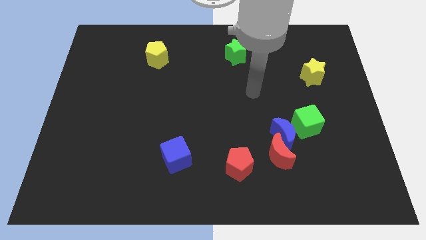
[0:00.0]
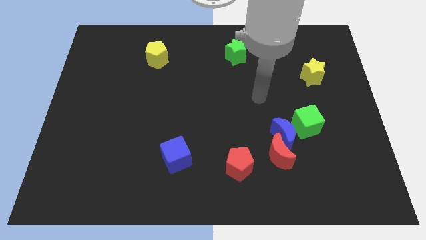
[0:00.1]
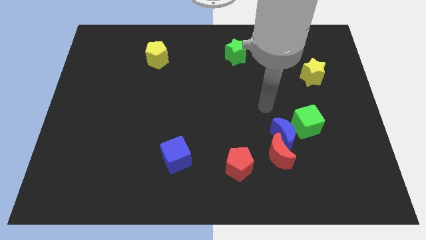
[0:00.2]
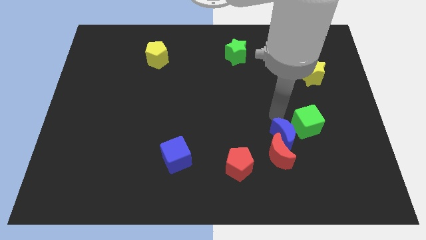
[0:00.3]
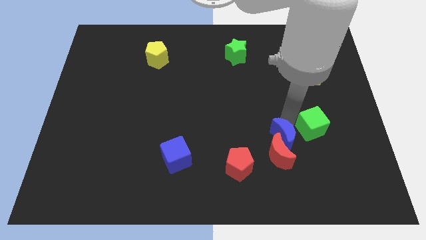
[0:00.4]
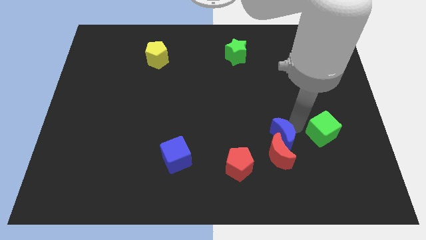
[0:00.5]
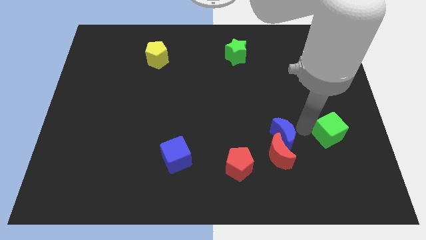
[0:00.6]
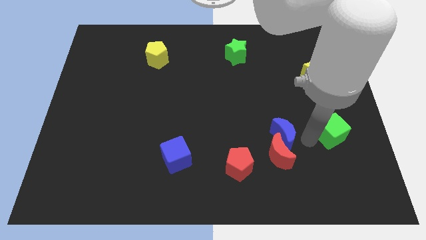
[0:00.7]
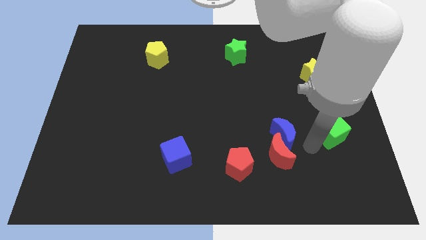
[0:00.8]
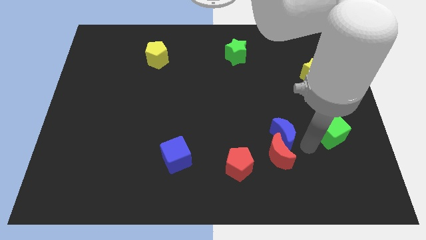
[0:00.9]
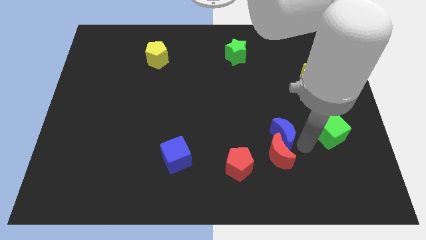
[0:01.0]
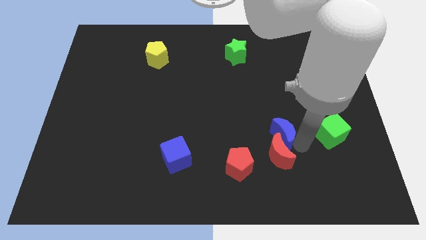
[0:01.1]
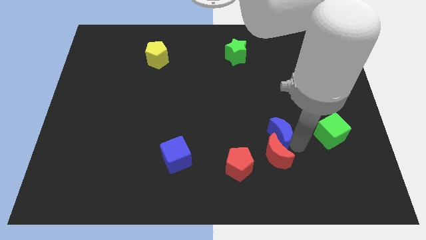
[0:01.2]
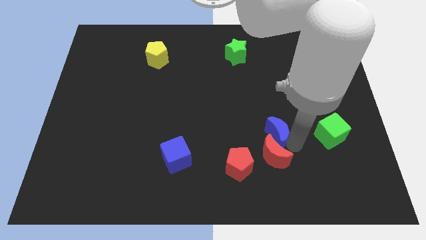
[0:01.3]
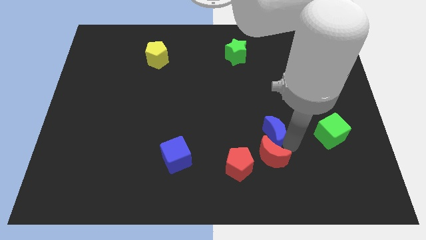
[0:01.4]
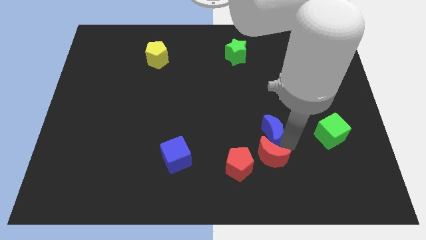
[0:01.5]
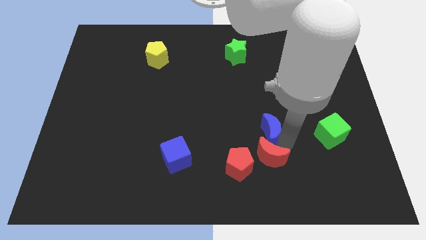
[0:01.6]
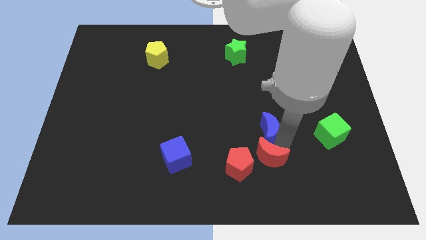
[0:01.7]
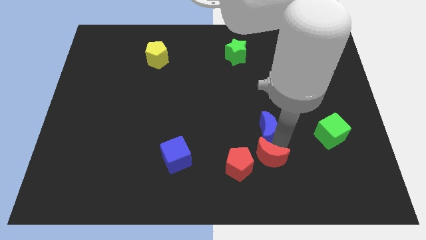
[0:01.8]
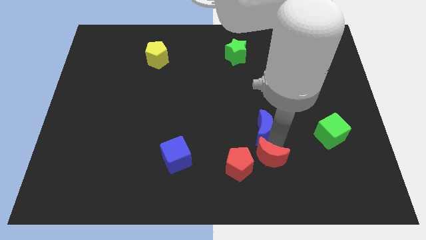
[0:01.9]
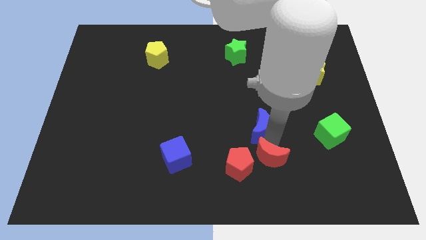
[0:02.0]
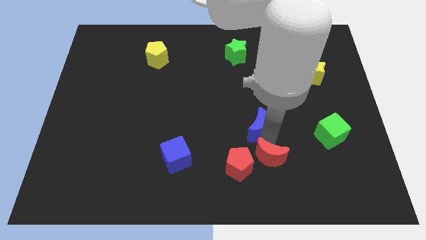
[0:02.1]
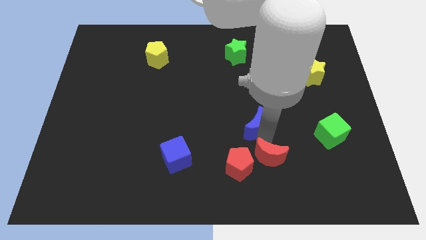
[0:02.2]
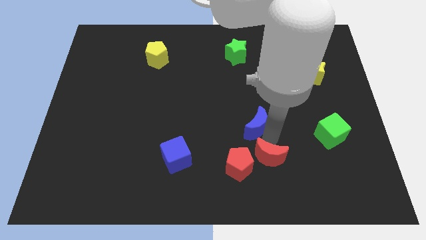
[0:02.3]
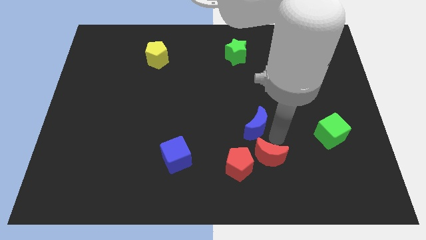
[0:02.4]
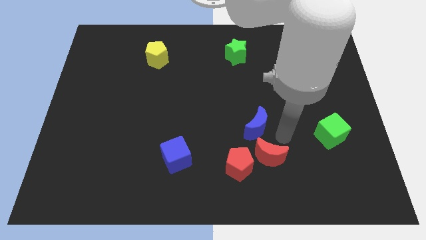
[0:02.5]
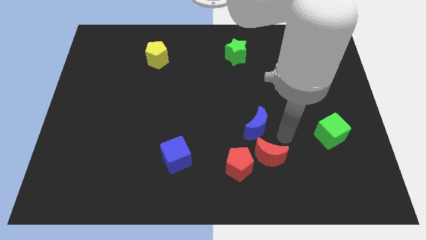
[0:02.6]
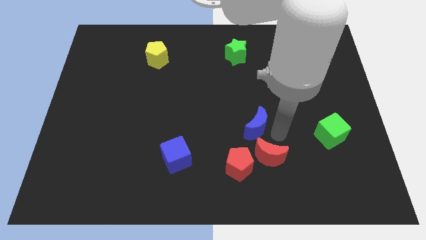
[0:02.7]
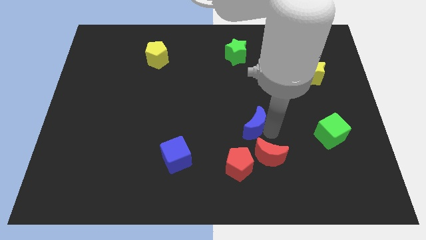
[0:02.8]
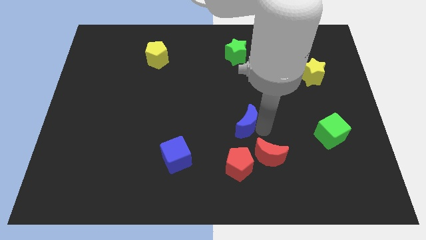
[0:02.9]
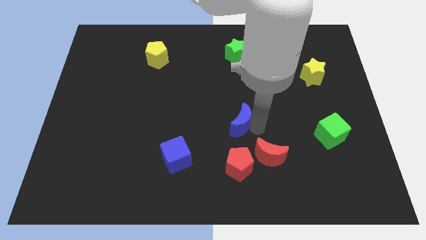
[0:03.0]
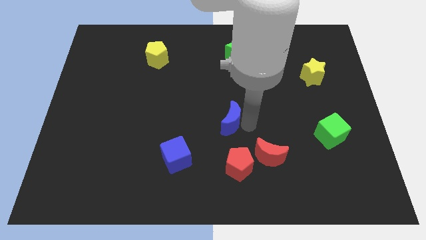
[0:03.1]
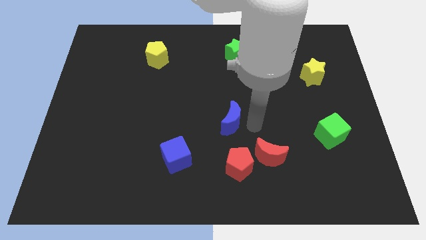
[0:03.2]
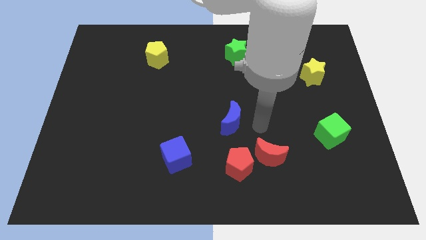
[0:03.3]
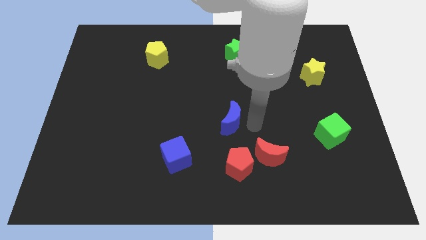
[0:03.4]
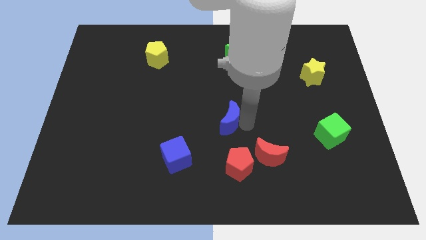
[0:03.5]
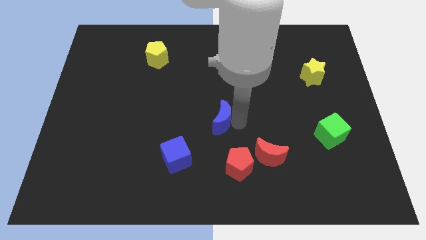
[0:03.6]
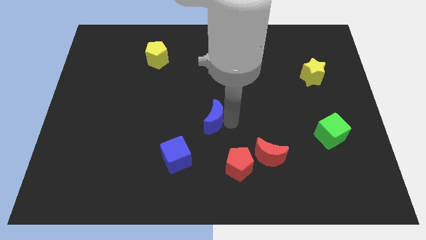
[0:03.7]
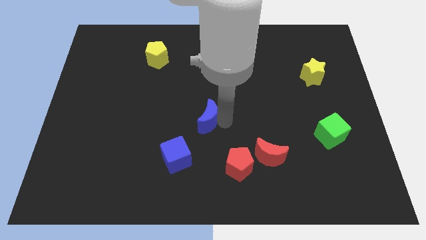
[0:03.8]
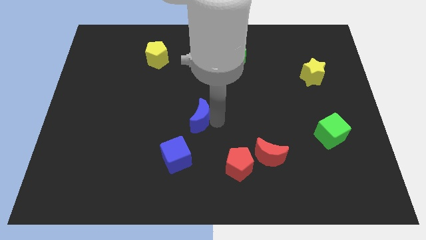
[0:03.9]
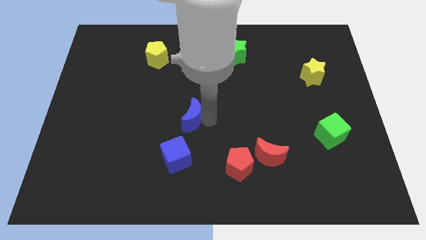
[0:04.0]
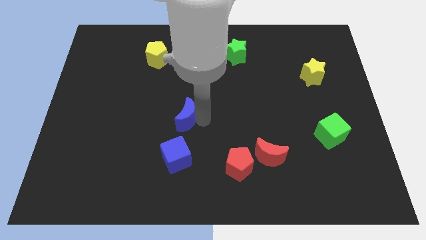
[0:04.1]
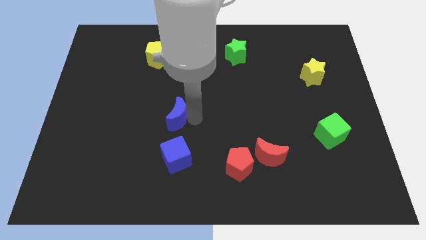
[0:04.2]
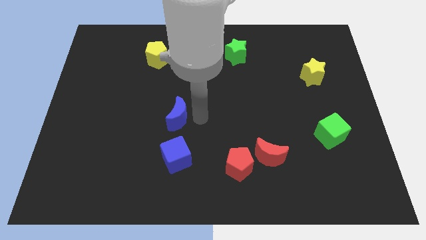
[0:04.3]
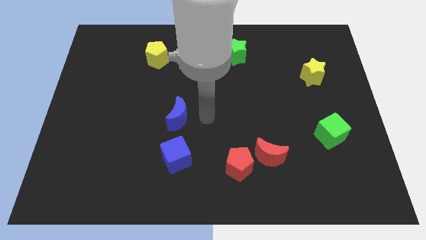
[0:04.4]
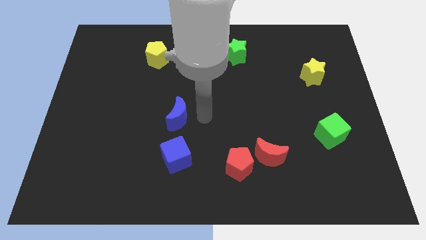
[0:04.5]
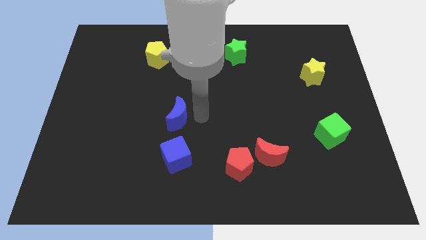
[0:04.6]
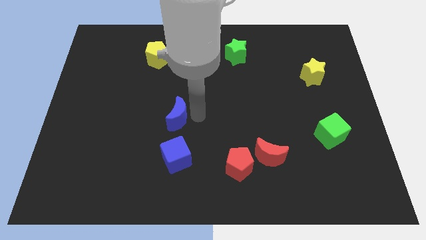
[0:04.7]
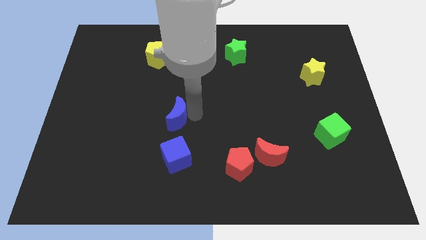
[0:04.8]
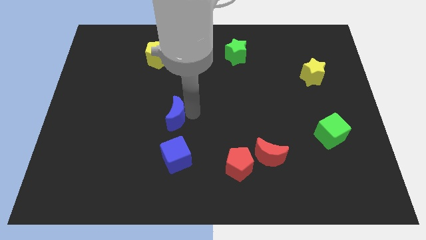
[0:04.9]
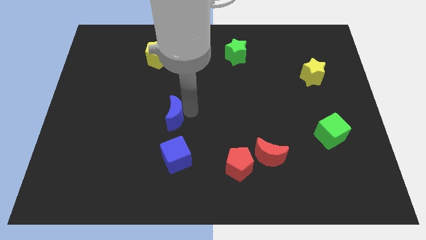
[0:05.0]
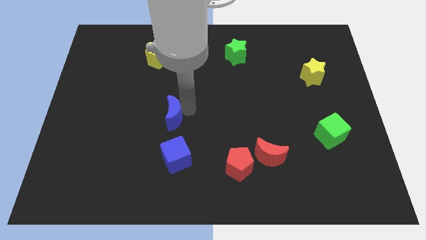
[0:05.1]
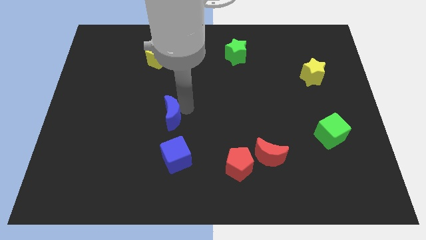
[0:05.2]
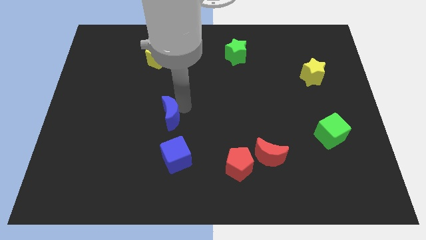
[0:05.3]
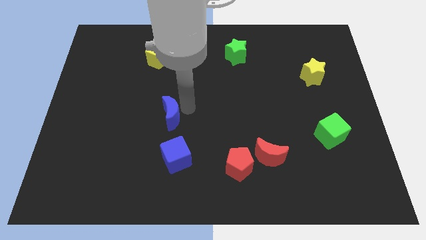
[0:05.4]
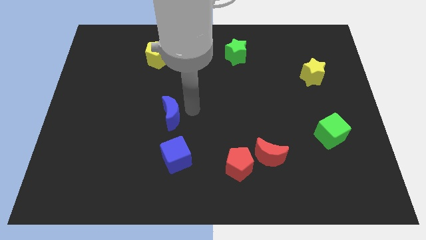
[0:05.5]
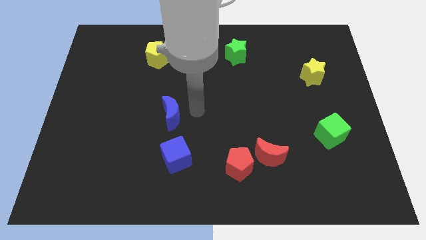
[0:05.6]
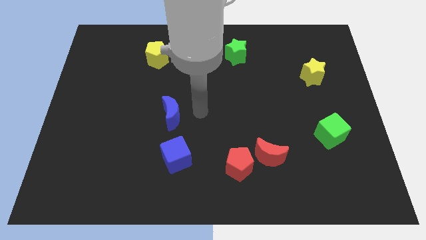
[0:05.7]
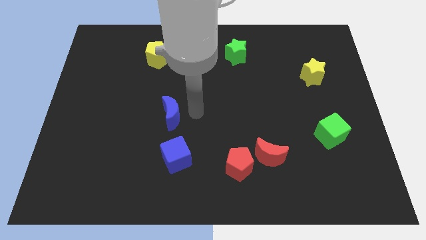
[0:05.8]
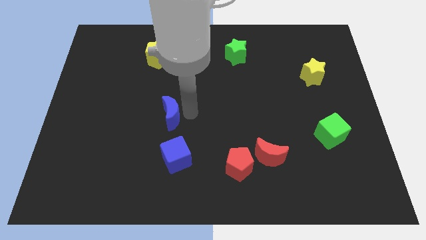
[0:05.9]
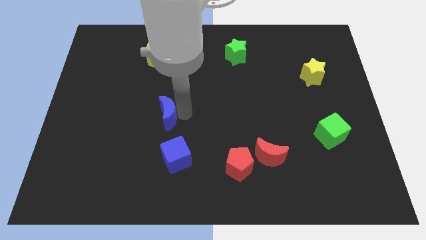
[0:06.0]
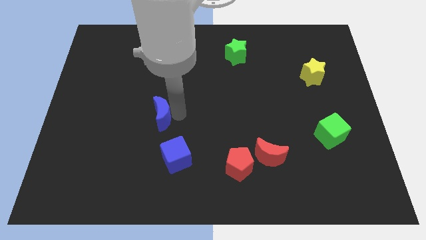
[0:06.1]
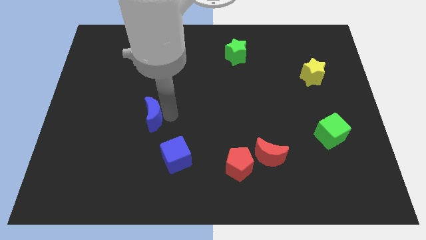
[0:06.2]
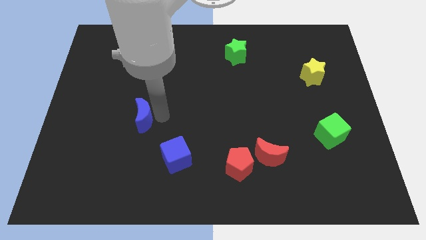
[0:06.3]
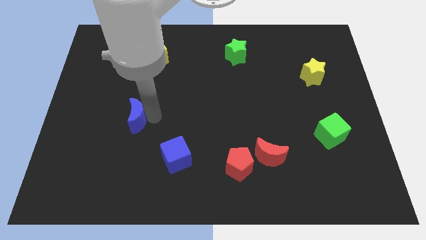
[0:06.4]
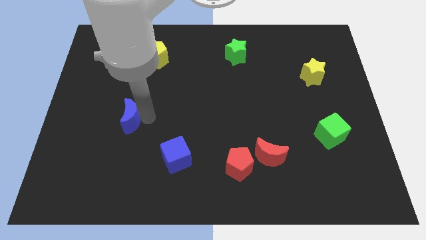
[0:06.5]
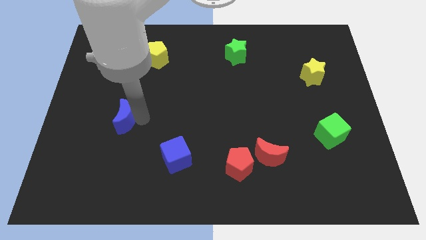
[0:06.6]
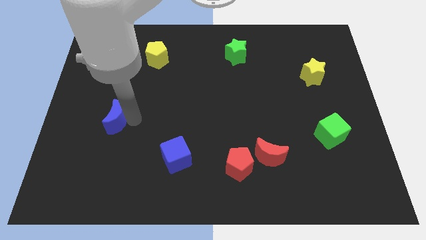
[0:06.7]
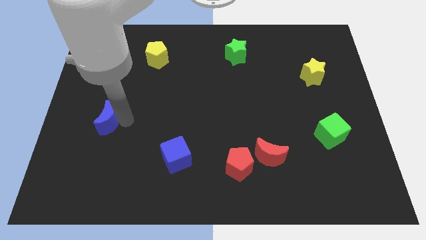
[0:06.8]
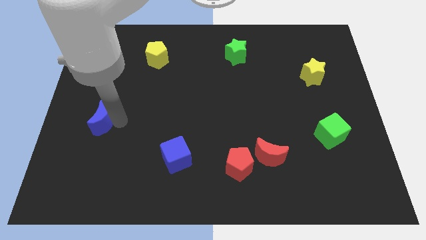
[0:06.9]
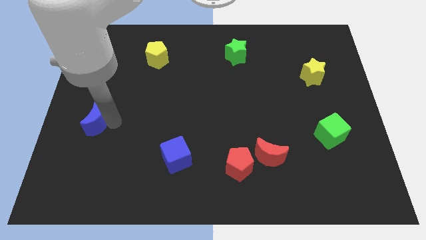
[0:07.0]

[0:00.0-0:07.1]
slide the blue moon to the left side of the board
